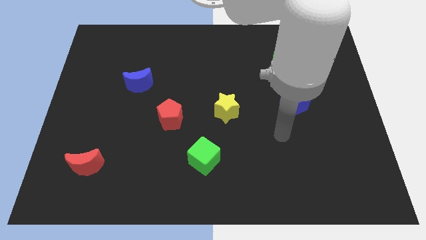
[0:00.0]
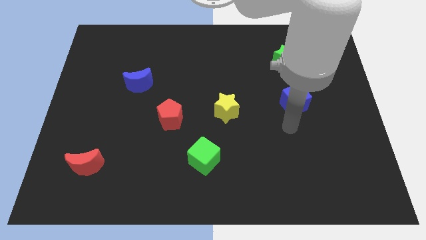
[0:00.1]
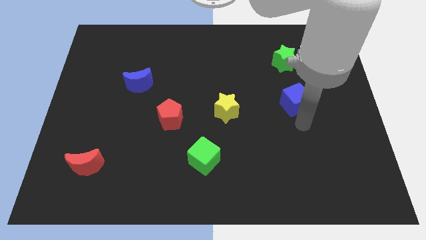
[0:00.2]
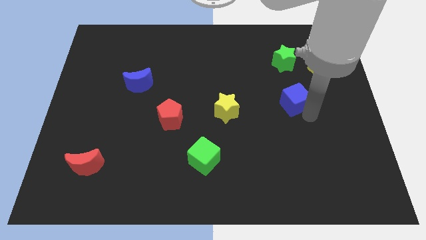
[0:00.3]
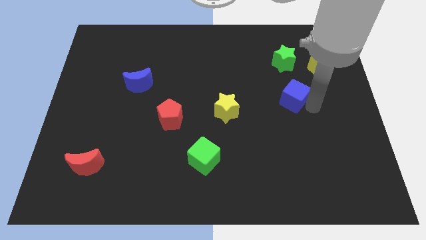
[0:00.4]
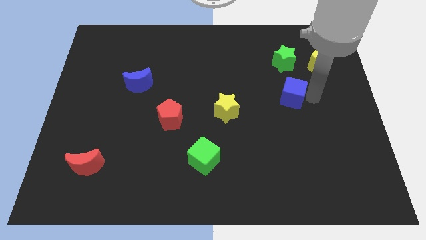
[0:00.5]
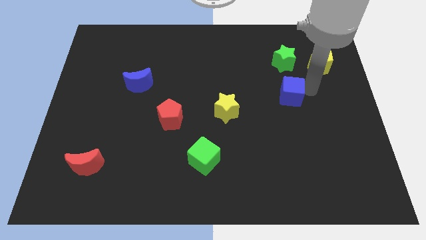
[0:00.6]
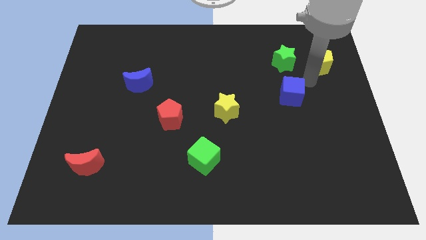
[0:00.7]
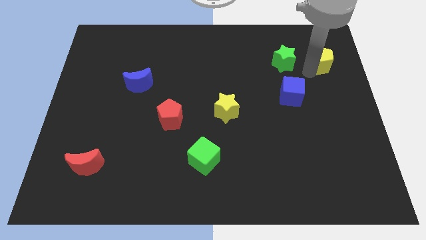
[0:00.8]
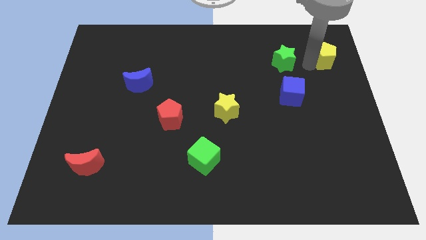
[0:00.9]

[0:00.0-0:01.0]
move the green star away from the yellow pentagon

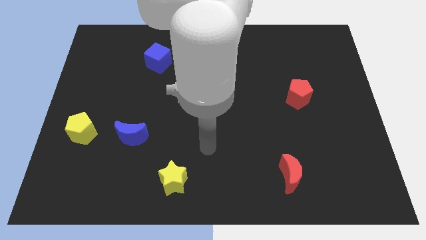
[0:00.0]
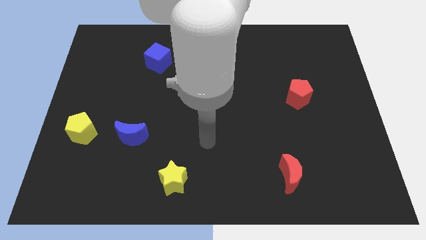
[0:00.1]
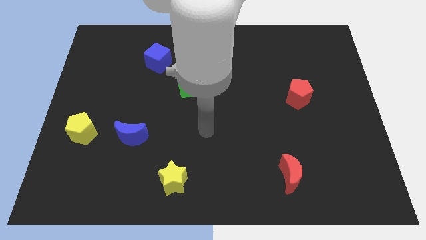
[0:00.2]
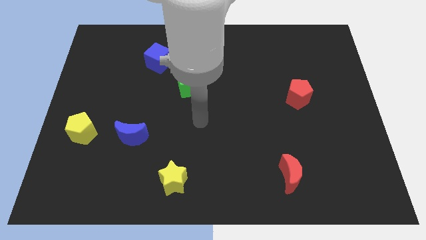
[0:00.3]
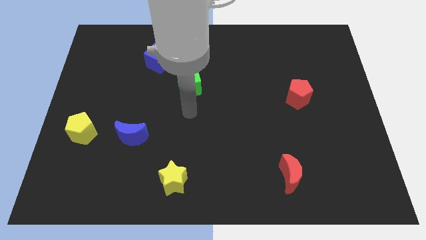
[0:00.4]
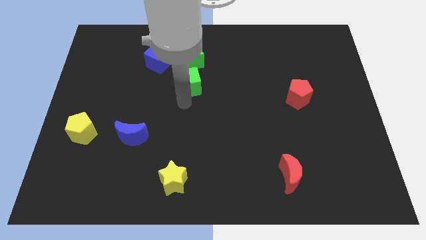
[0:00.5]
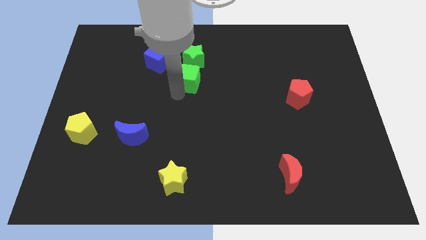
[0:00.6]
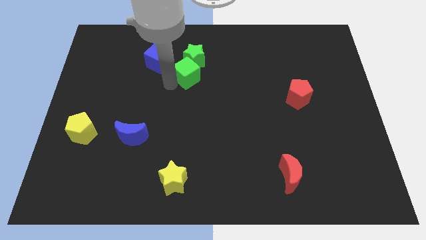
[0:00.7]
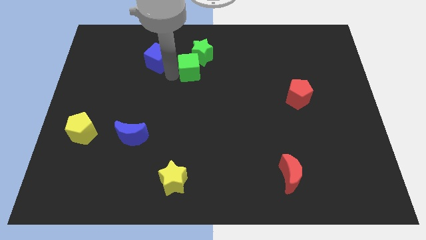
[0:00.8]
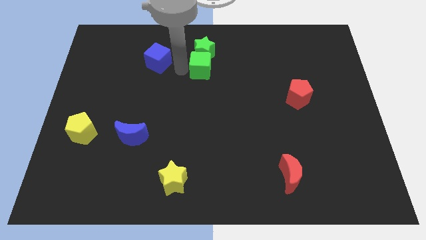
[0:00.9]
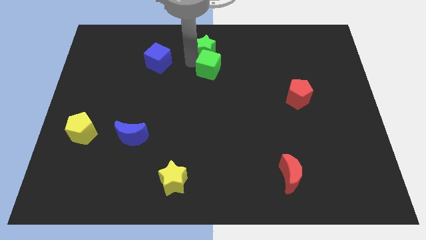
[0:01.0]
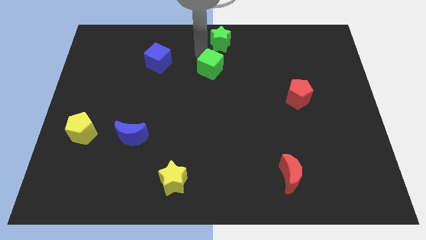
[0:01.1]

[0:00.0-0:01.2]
move the green cube away from the green star

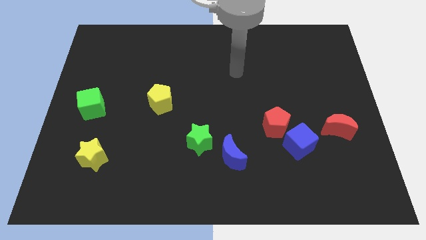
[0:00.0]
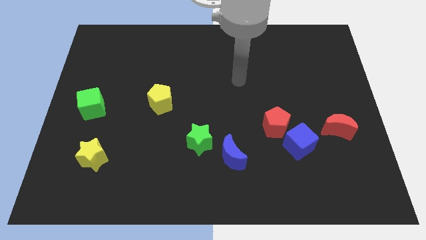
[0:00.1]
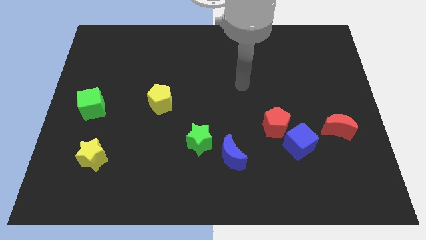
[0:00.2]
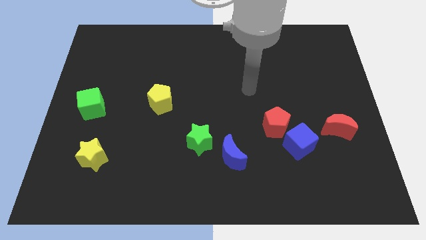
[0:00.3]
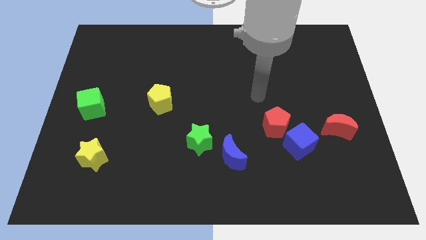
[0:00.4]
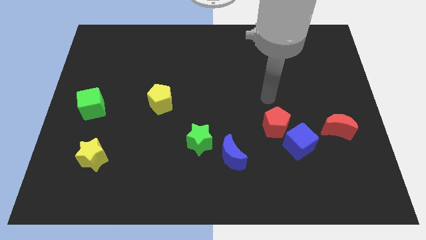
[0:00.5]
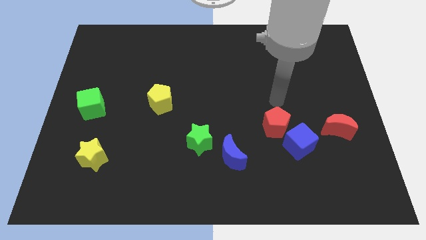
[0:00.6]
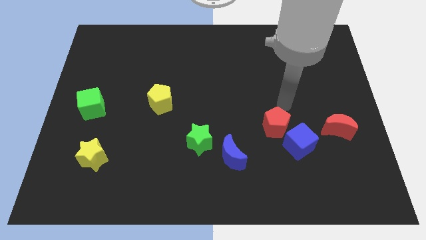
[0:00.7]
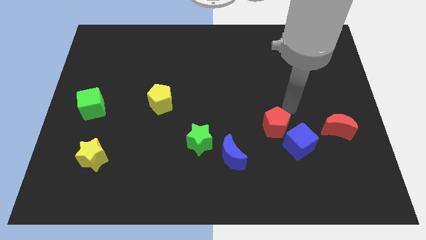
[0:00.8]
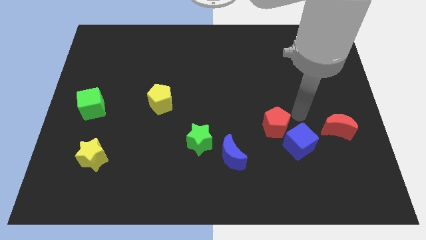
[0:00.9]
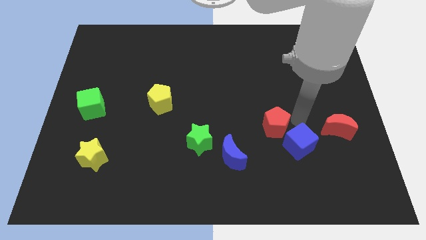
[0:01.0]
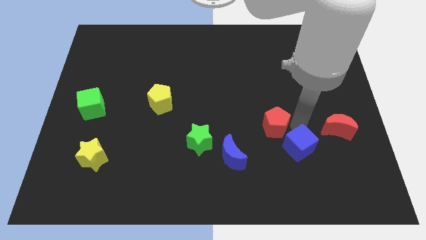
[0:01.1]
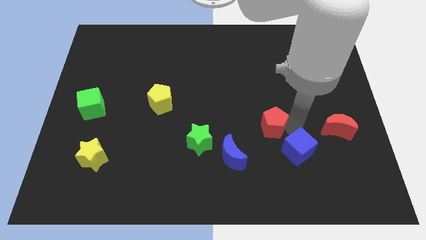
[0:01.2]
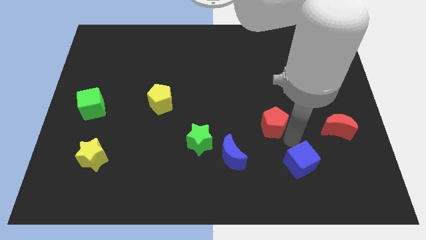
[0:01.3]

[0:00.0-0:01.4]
pull the red pentagon apart from the blue cube

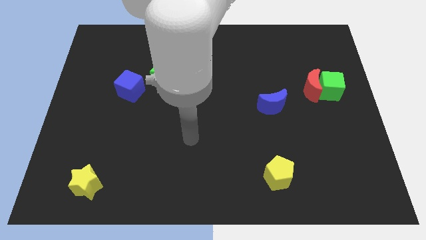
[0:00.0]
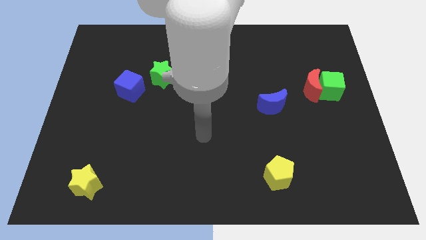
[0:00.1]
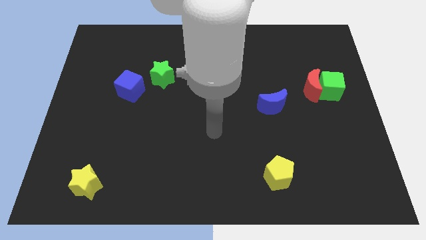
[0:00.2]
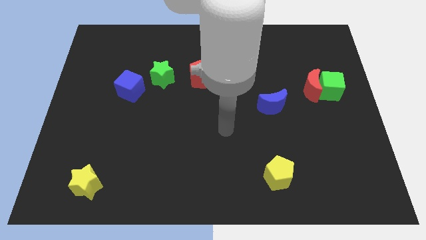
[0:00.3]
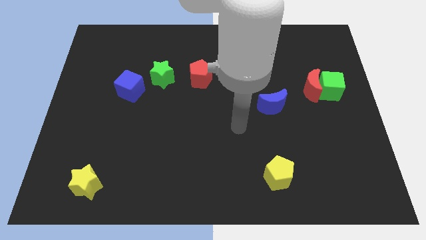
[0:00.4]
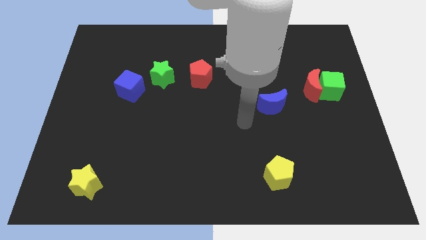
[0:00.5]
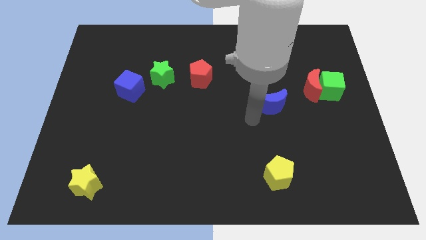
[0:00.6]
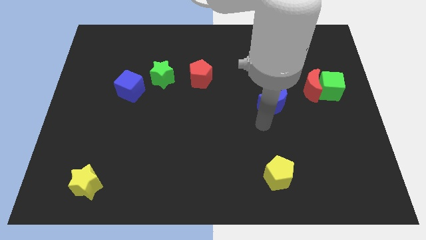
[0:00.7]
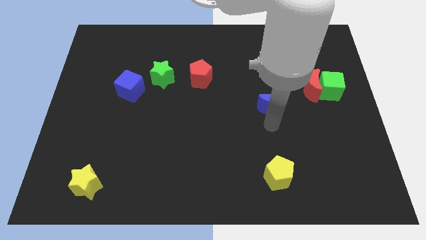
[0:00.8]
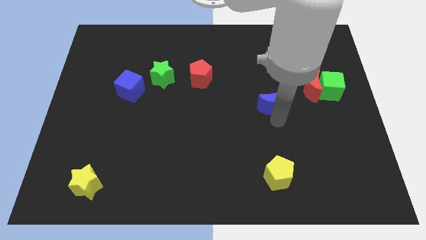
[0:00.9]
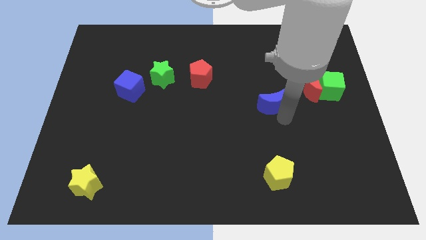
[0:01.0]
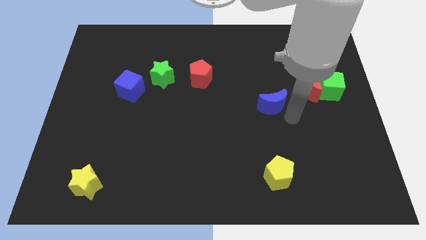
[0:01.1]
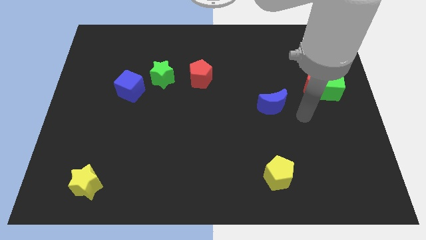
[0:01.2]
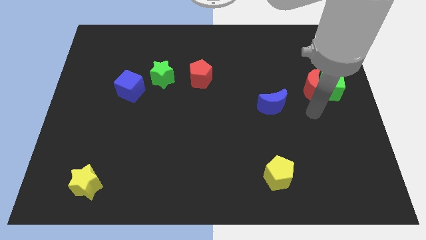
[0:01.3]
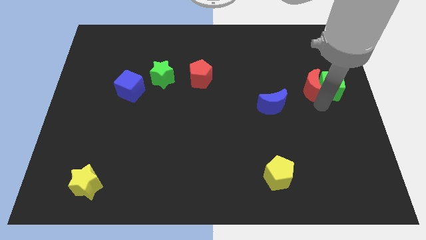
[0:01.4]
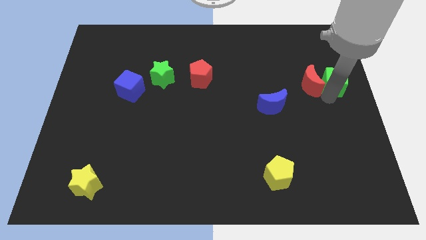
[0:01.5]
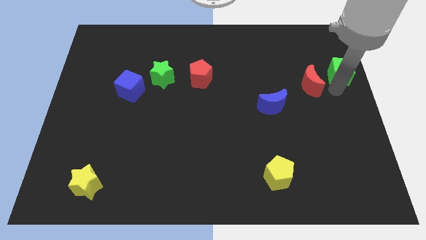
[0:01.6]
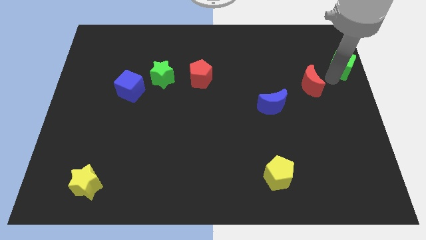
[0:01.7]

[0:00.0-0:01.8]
move the red moon away from the green cube

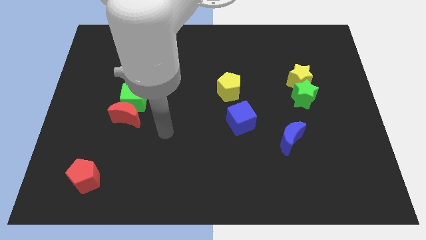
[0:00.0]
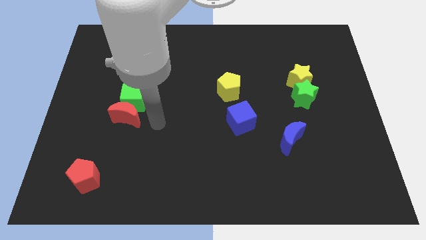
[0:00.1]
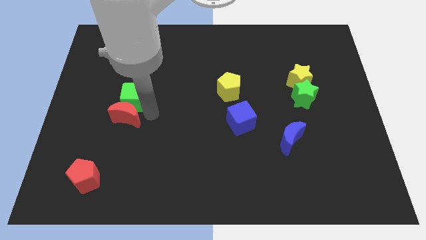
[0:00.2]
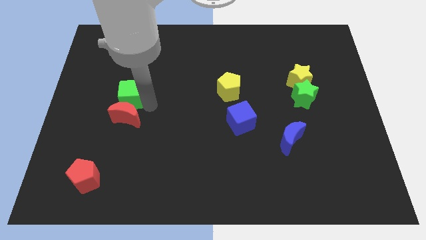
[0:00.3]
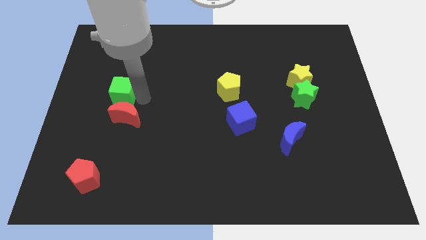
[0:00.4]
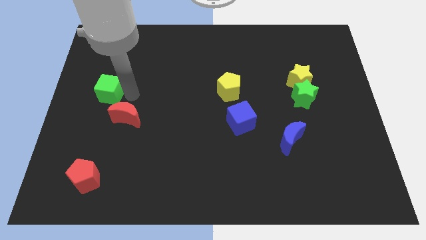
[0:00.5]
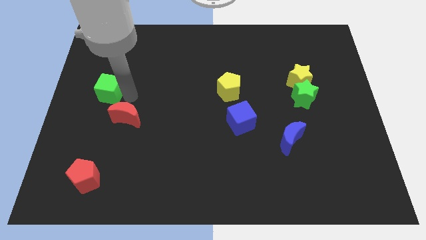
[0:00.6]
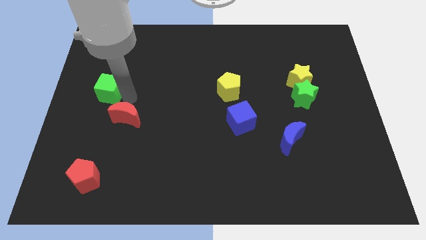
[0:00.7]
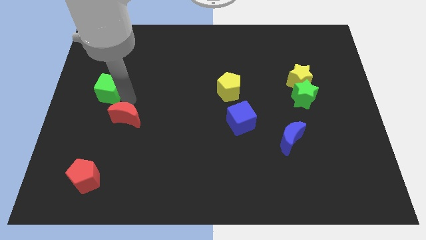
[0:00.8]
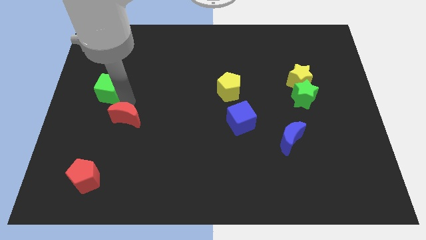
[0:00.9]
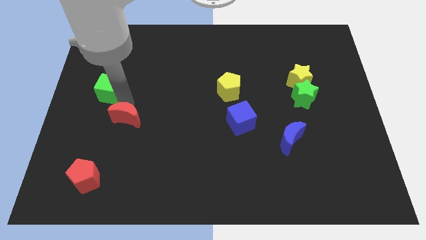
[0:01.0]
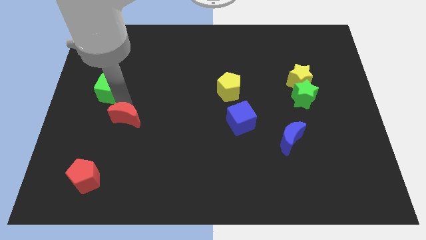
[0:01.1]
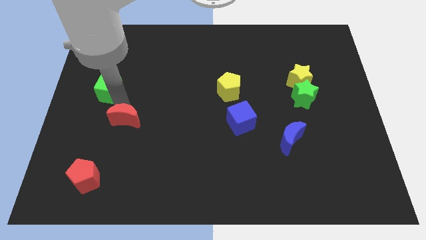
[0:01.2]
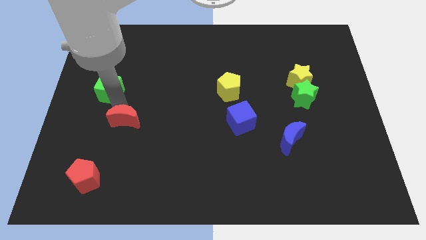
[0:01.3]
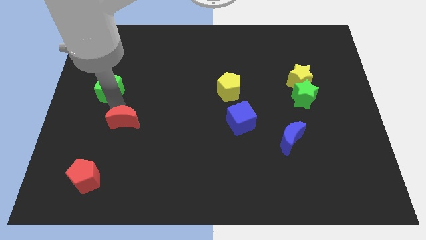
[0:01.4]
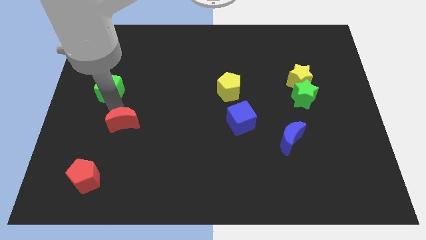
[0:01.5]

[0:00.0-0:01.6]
separate the red moon from the green cube

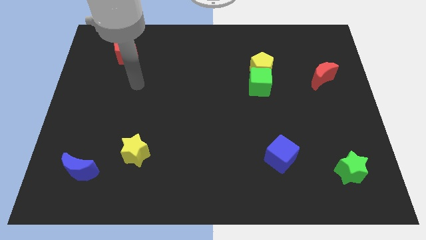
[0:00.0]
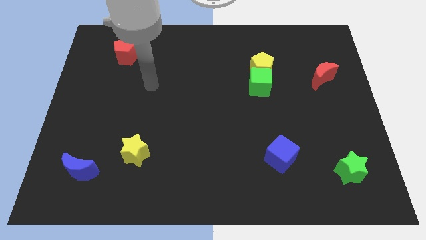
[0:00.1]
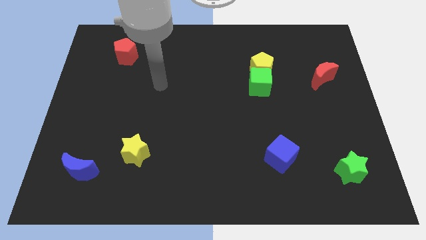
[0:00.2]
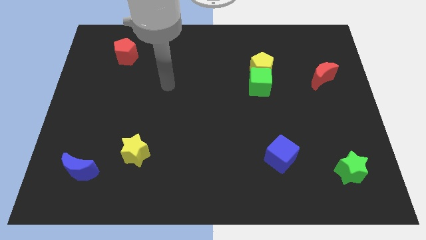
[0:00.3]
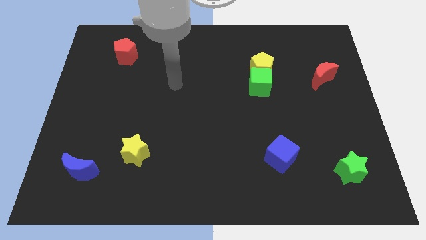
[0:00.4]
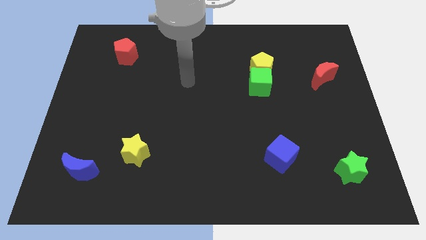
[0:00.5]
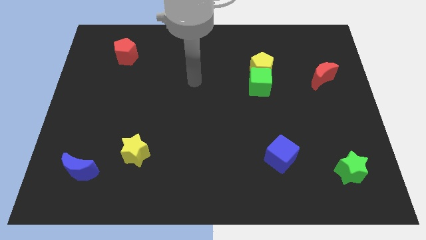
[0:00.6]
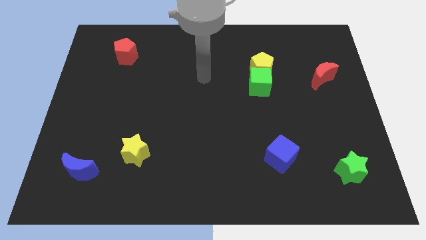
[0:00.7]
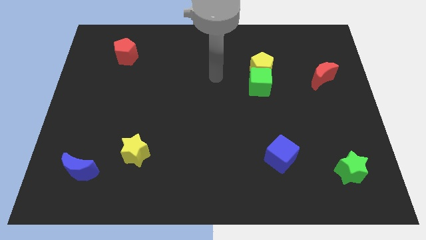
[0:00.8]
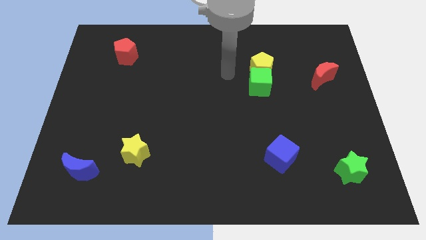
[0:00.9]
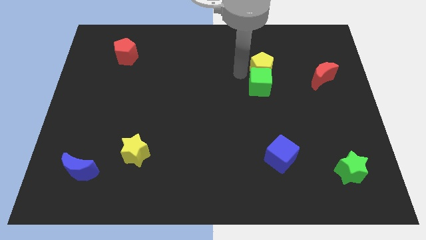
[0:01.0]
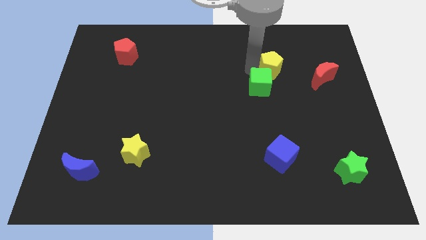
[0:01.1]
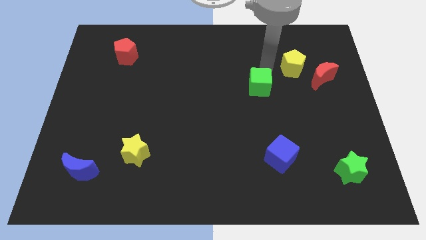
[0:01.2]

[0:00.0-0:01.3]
pull the green cube apart from the yellow pentagon

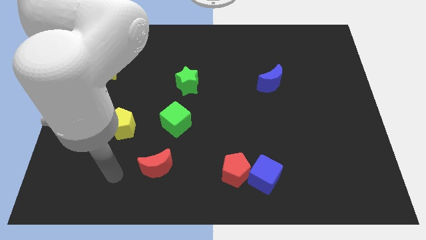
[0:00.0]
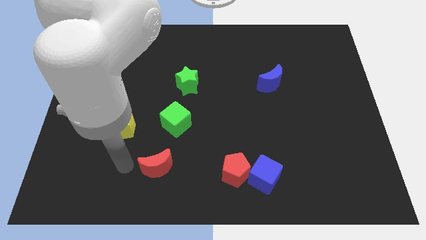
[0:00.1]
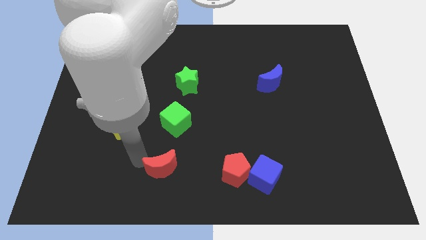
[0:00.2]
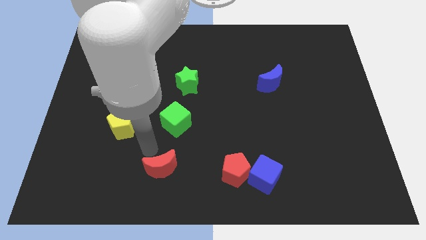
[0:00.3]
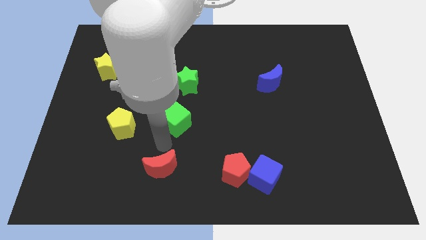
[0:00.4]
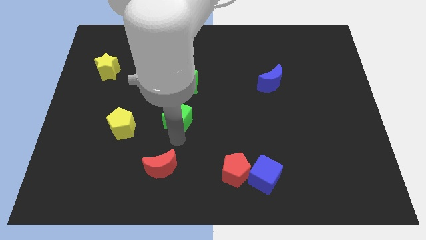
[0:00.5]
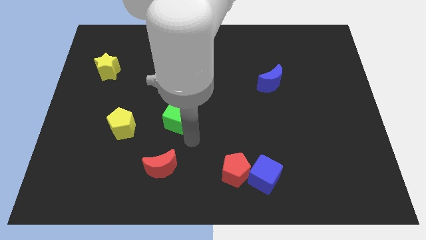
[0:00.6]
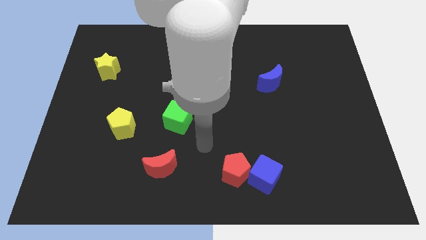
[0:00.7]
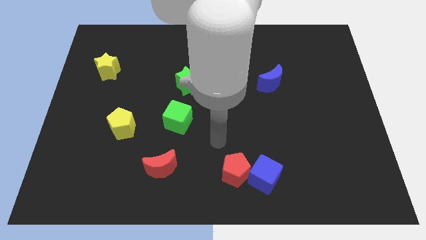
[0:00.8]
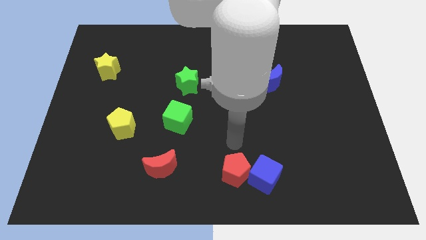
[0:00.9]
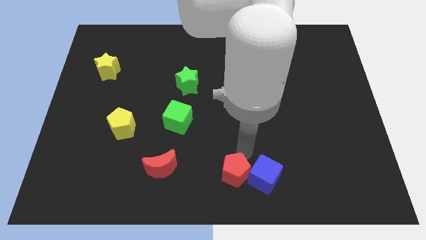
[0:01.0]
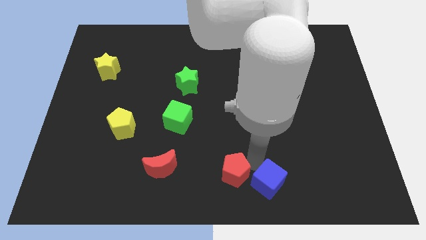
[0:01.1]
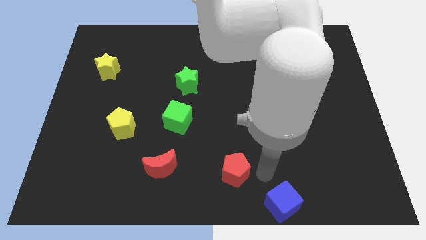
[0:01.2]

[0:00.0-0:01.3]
move the red pentagon away from the blue cube
